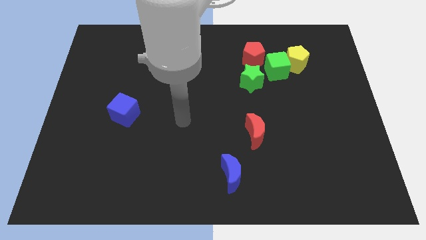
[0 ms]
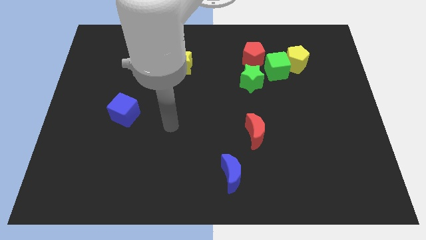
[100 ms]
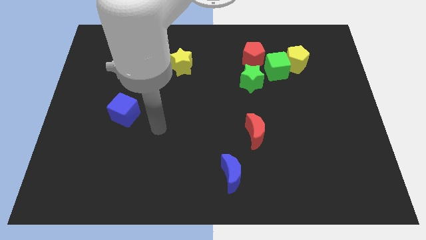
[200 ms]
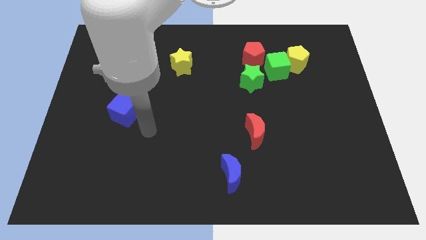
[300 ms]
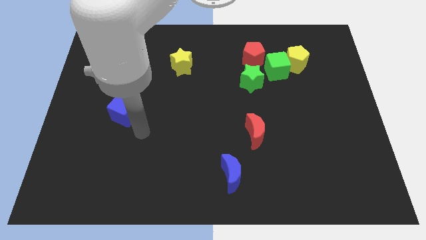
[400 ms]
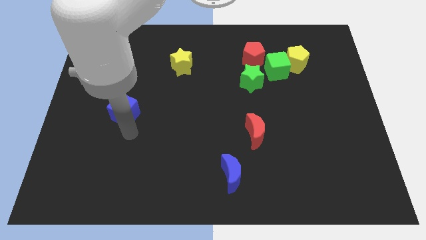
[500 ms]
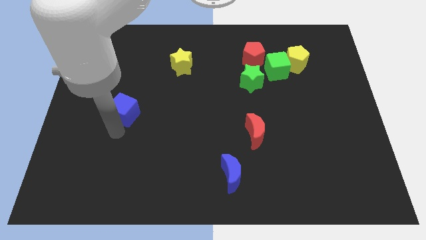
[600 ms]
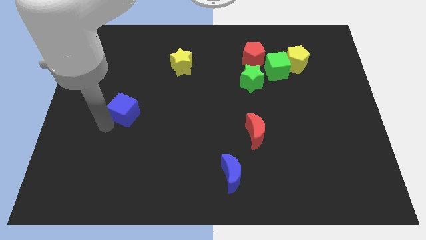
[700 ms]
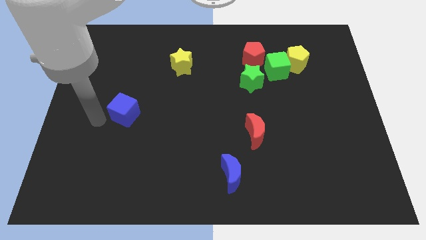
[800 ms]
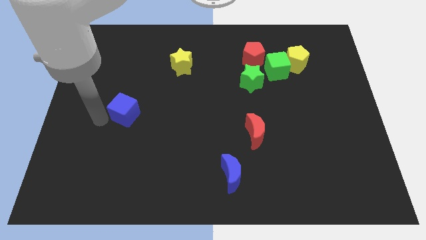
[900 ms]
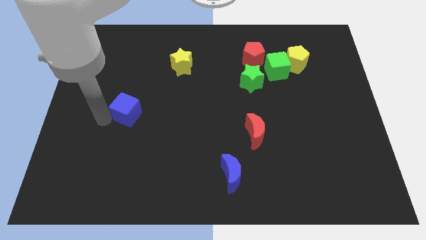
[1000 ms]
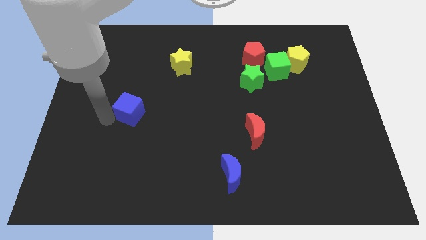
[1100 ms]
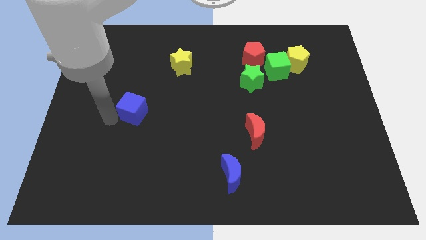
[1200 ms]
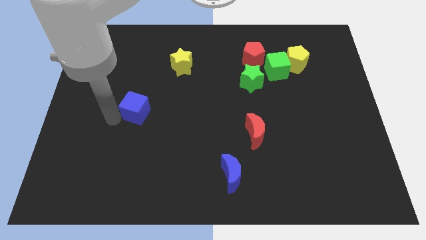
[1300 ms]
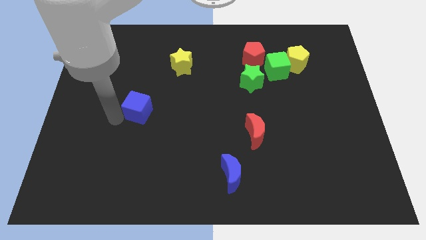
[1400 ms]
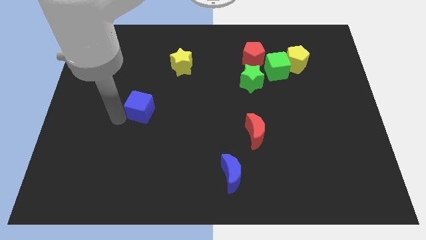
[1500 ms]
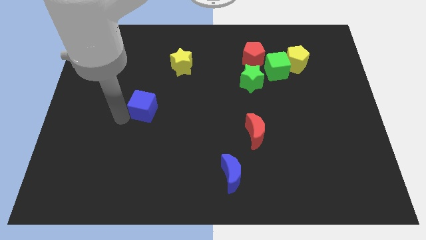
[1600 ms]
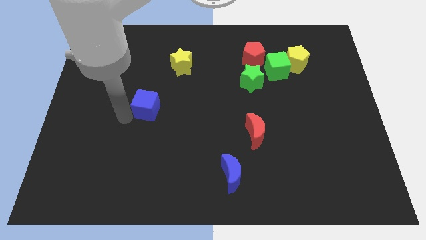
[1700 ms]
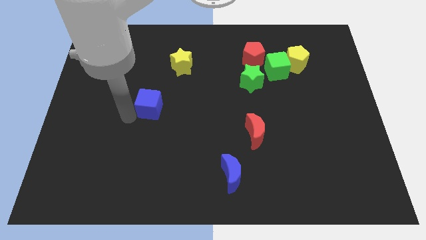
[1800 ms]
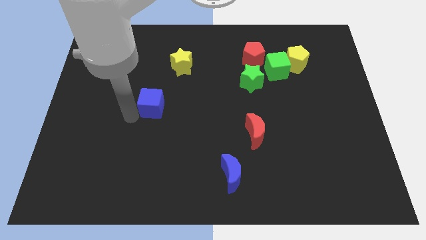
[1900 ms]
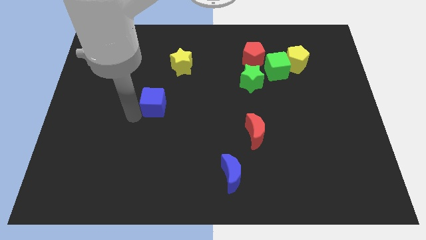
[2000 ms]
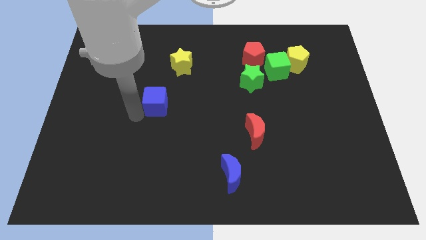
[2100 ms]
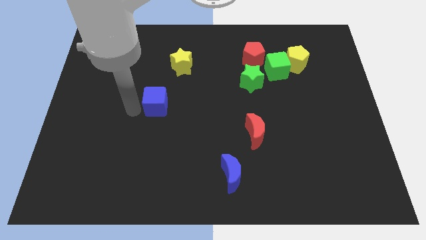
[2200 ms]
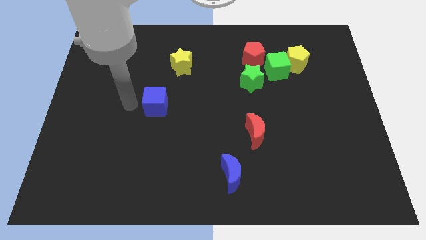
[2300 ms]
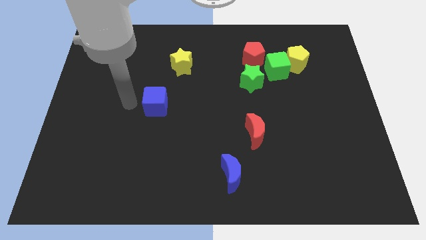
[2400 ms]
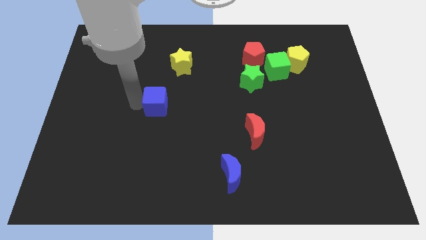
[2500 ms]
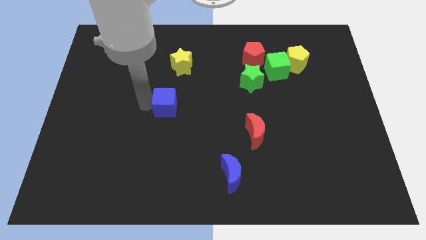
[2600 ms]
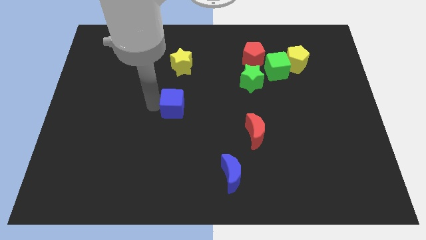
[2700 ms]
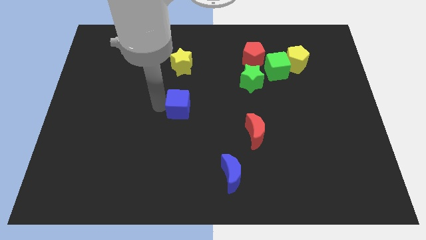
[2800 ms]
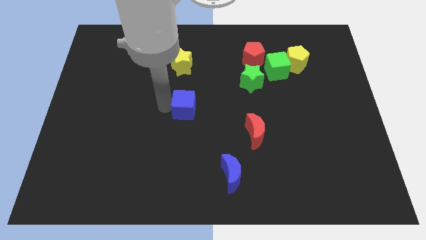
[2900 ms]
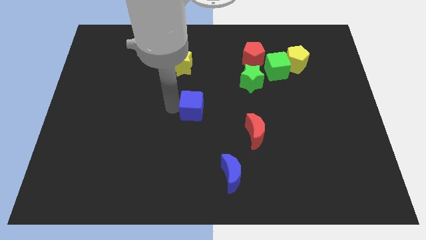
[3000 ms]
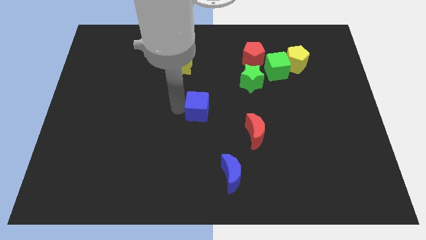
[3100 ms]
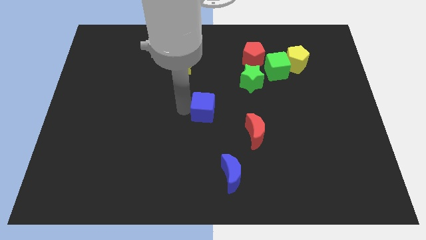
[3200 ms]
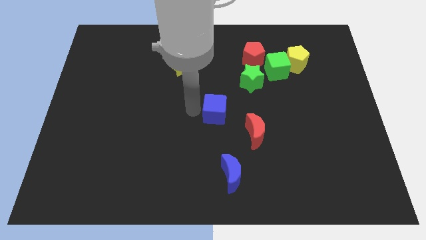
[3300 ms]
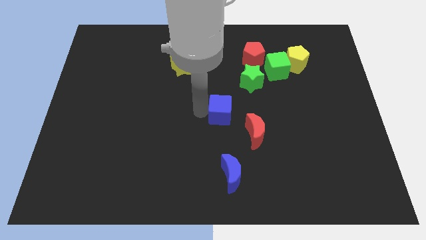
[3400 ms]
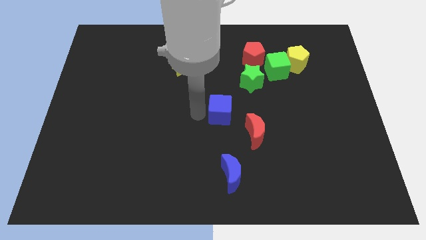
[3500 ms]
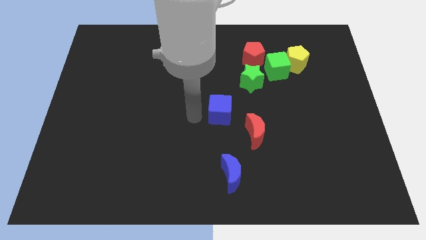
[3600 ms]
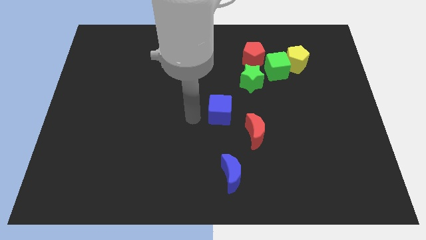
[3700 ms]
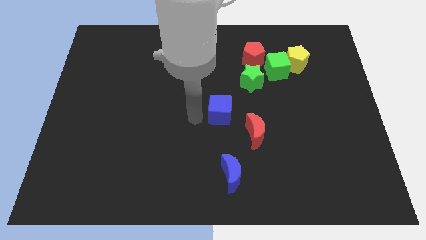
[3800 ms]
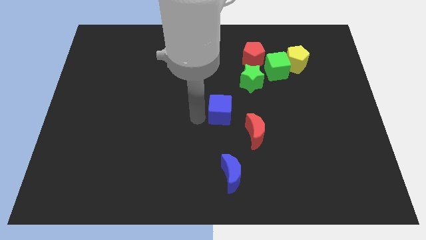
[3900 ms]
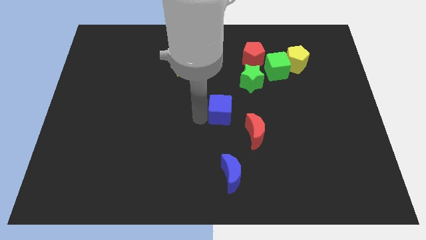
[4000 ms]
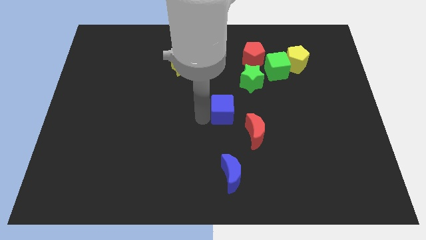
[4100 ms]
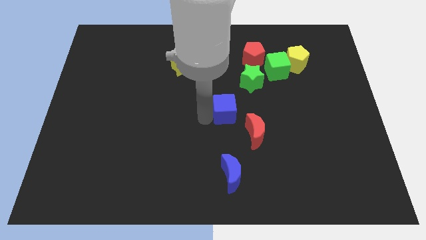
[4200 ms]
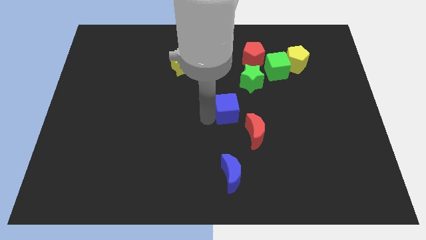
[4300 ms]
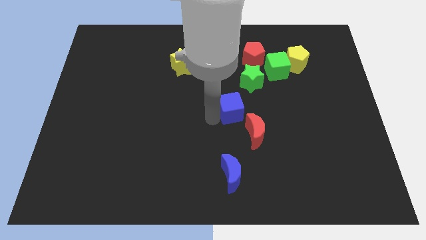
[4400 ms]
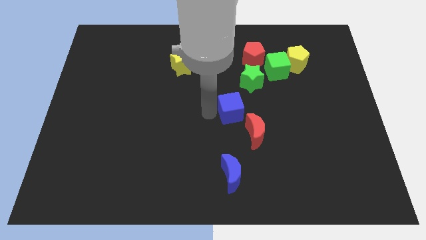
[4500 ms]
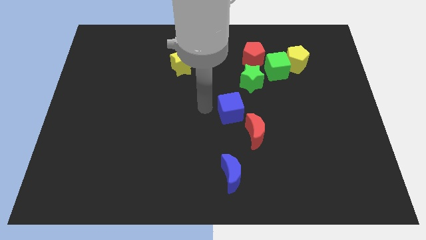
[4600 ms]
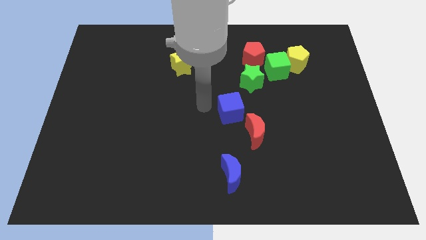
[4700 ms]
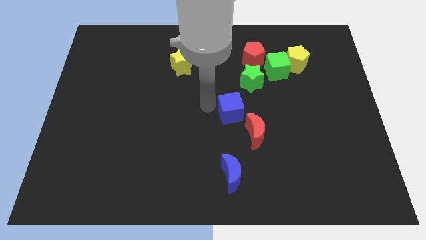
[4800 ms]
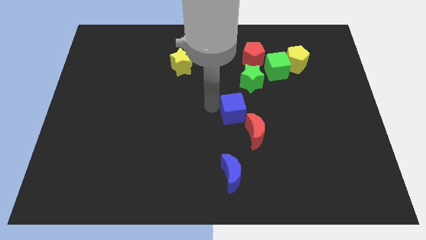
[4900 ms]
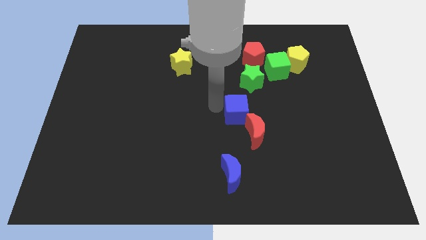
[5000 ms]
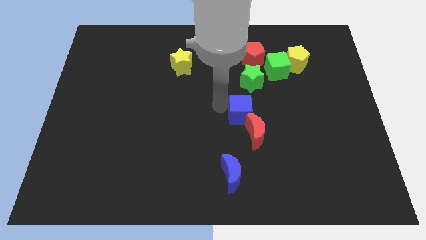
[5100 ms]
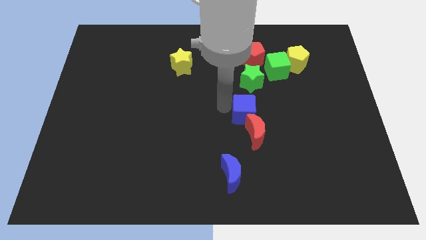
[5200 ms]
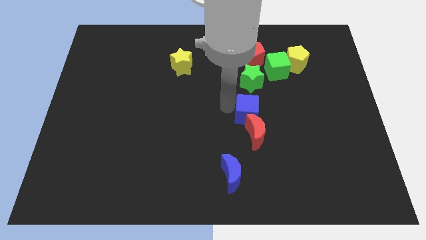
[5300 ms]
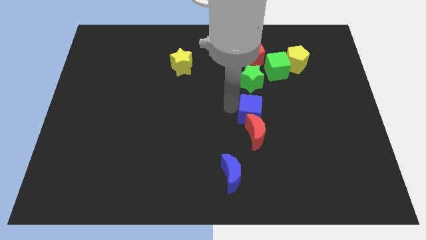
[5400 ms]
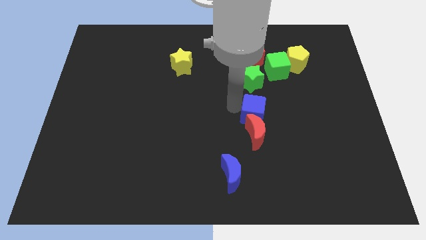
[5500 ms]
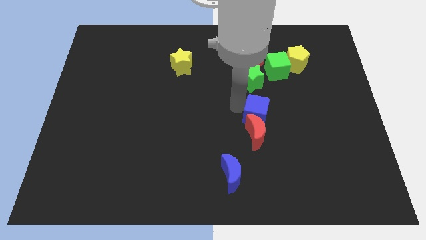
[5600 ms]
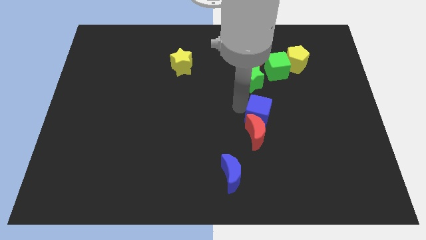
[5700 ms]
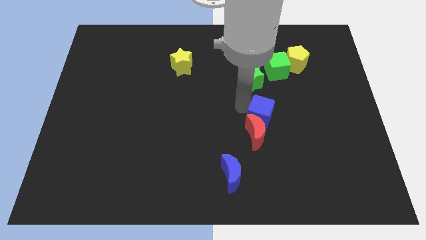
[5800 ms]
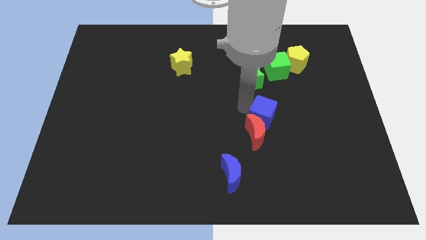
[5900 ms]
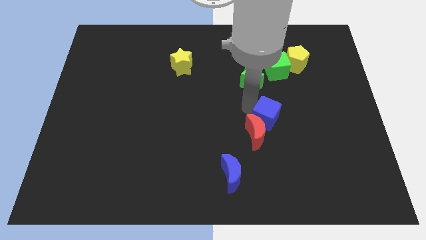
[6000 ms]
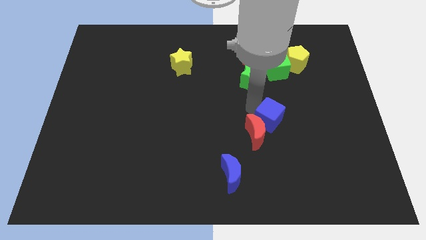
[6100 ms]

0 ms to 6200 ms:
push the blue cube to the right of the red moon
